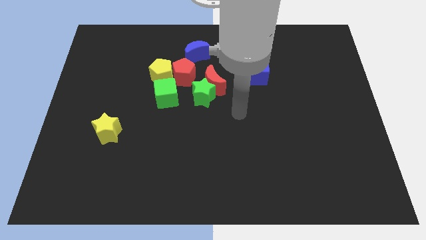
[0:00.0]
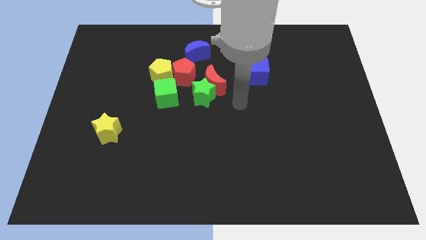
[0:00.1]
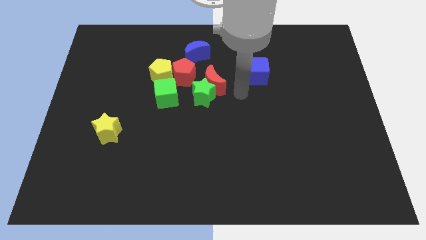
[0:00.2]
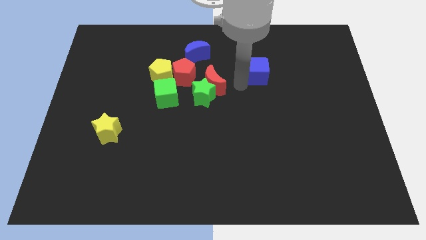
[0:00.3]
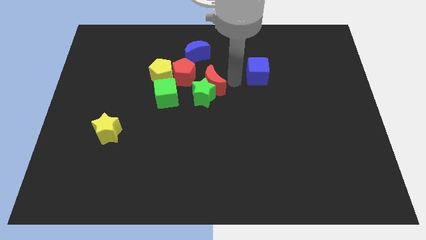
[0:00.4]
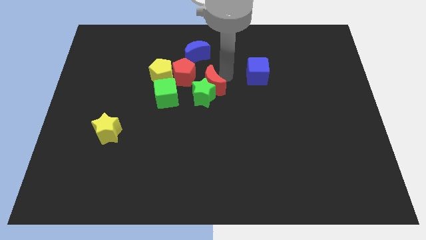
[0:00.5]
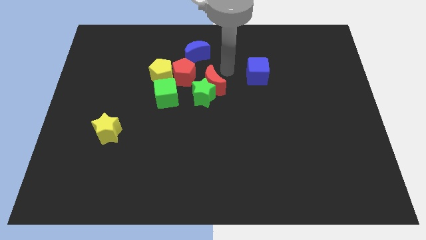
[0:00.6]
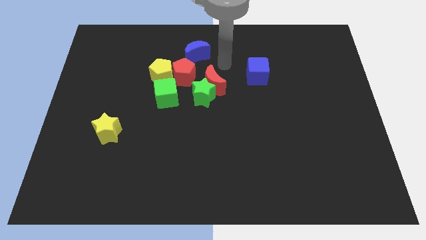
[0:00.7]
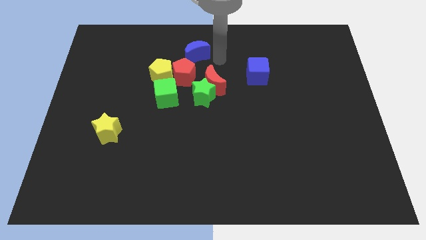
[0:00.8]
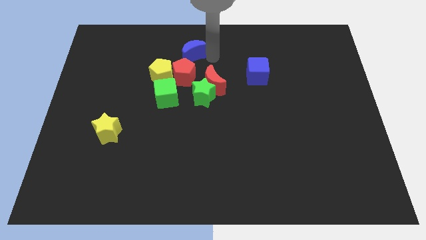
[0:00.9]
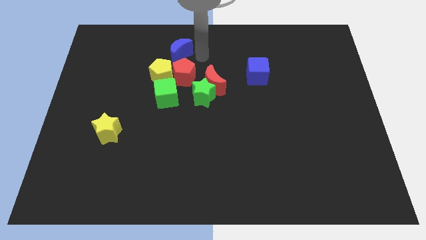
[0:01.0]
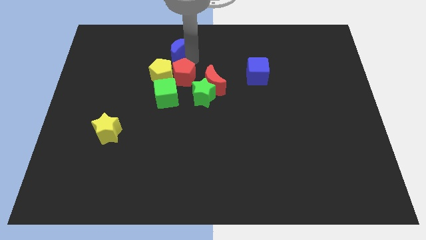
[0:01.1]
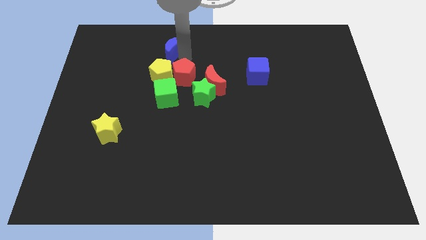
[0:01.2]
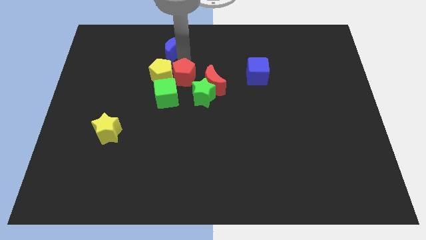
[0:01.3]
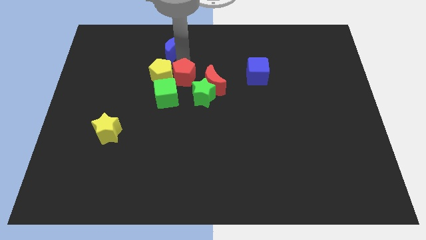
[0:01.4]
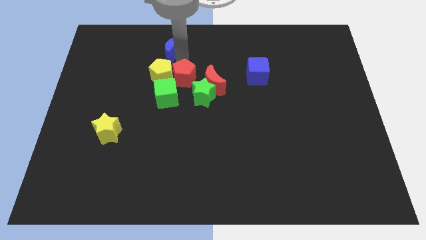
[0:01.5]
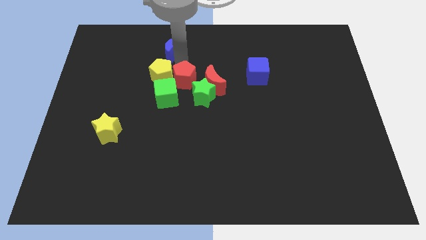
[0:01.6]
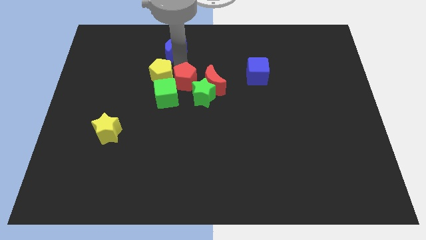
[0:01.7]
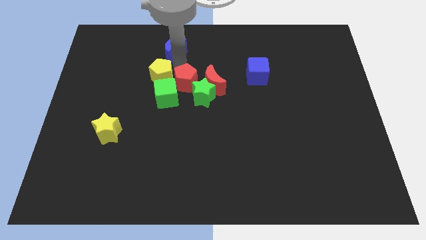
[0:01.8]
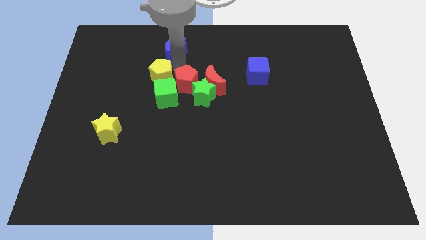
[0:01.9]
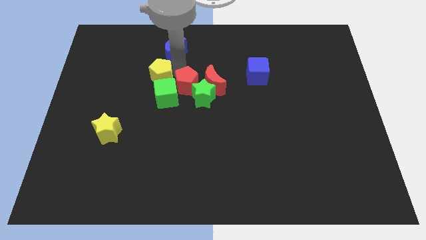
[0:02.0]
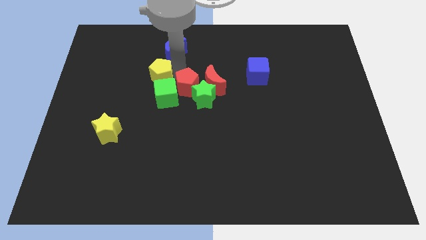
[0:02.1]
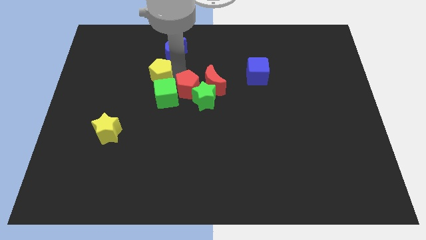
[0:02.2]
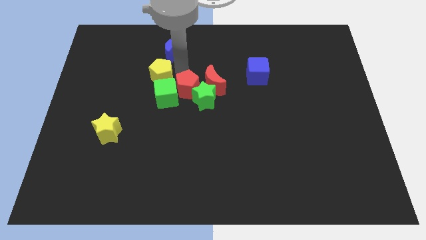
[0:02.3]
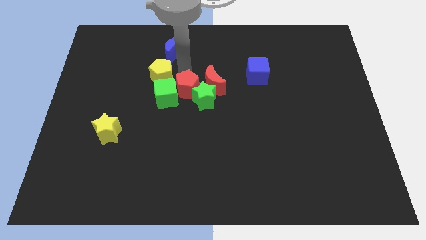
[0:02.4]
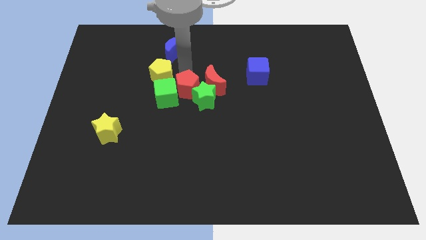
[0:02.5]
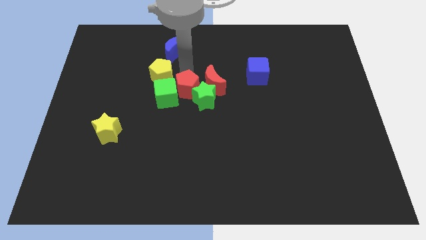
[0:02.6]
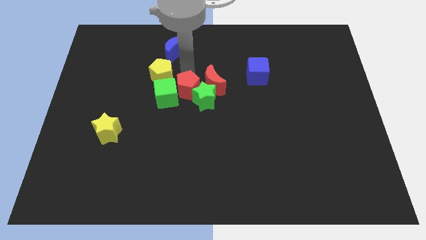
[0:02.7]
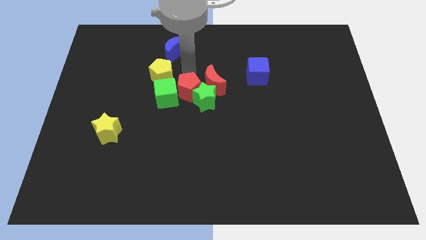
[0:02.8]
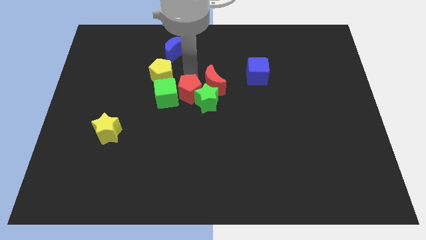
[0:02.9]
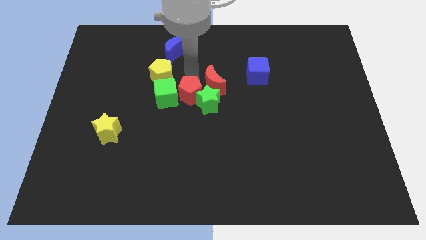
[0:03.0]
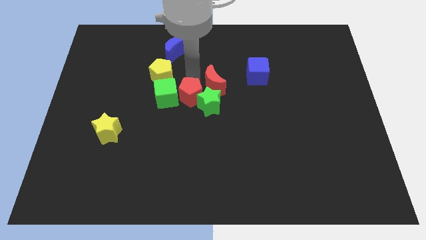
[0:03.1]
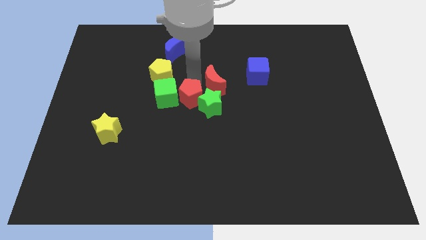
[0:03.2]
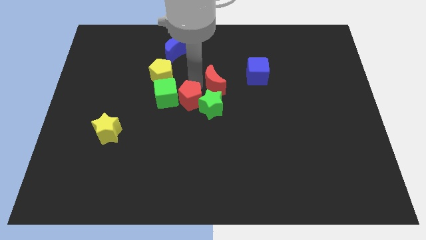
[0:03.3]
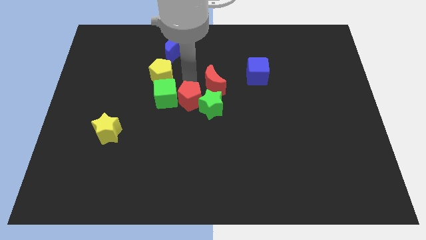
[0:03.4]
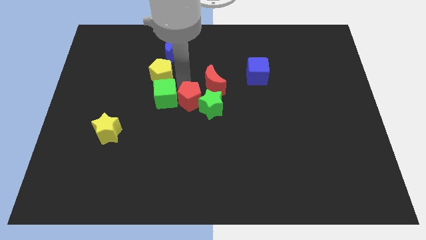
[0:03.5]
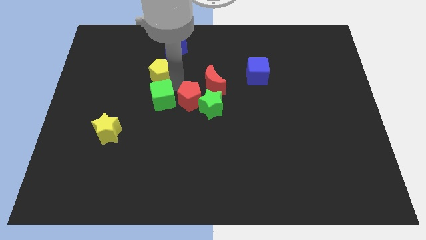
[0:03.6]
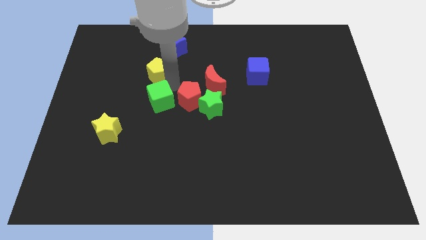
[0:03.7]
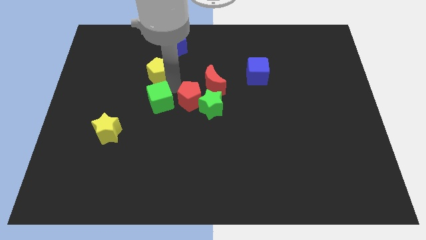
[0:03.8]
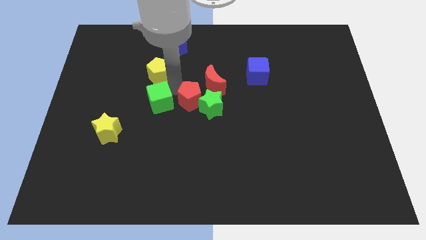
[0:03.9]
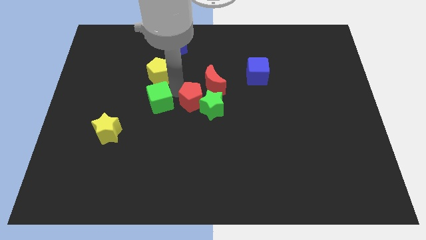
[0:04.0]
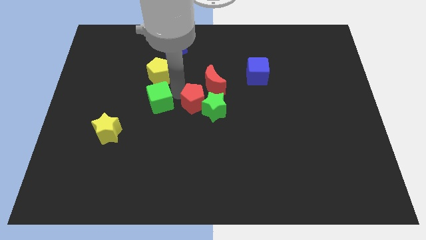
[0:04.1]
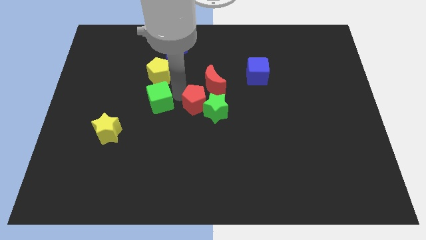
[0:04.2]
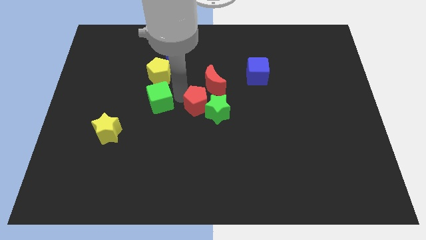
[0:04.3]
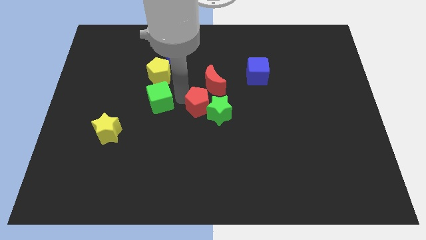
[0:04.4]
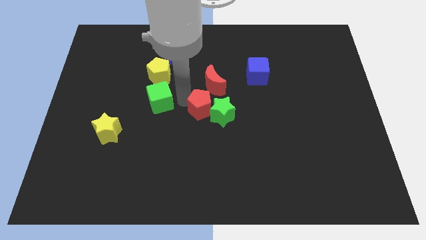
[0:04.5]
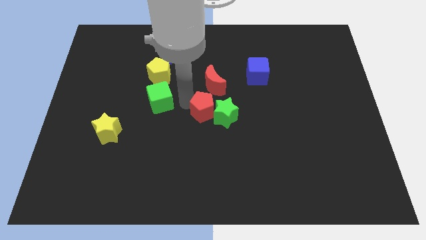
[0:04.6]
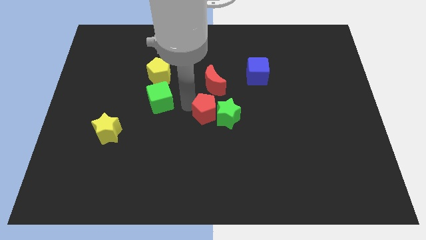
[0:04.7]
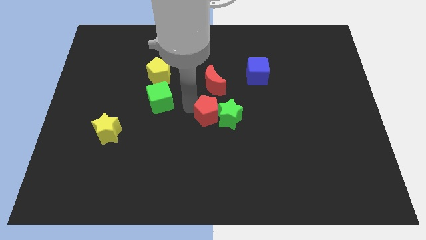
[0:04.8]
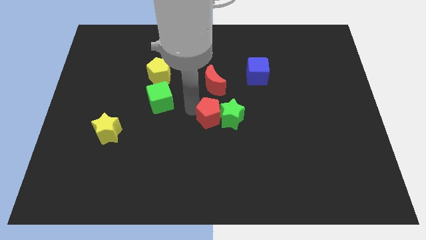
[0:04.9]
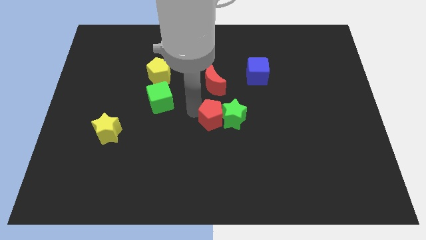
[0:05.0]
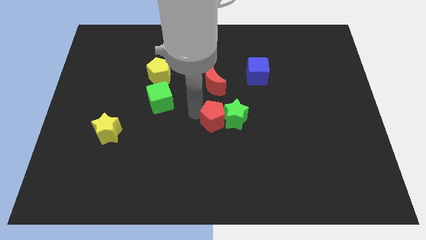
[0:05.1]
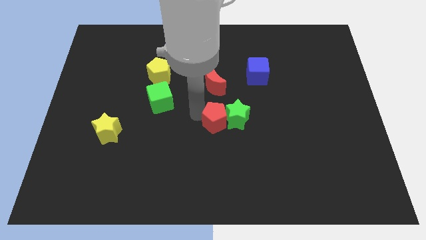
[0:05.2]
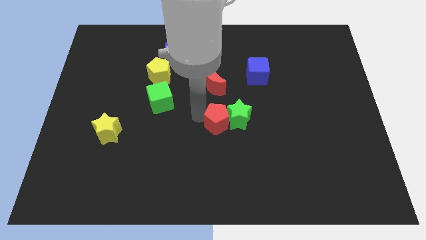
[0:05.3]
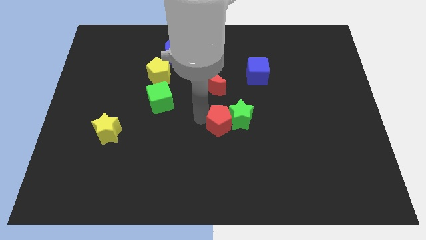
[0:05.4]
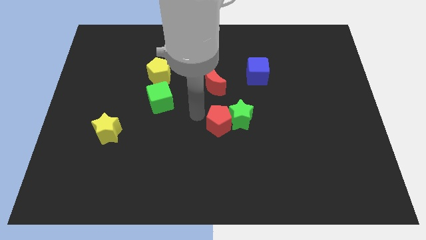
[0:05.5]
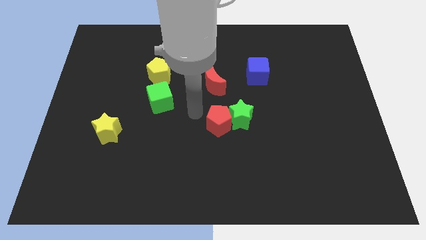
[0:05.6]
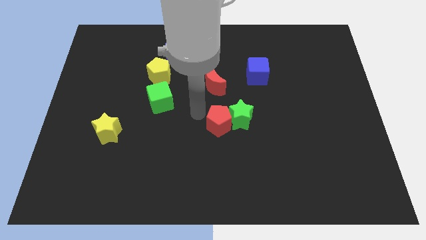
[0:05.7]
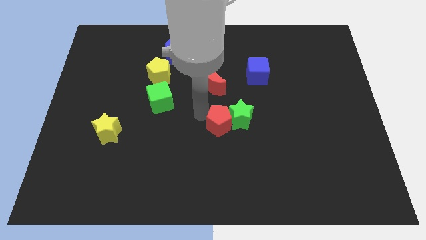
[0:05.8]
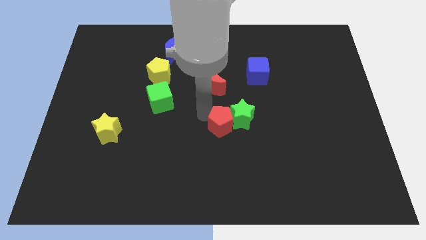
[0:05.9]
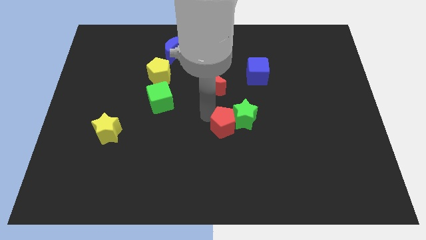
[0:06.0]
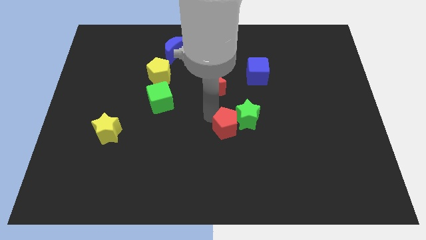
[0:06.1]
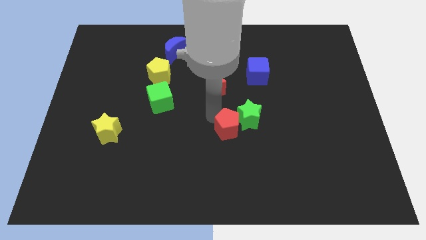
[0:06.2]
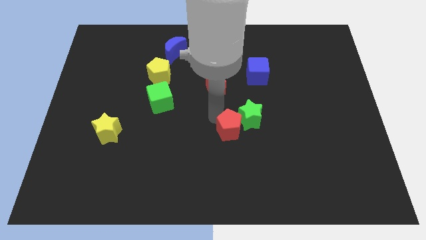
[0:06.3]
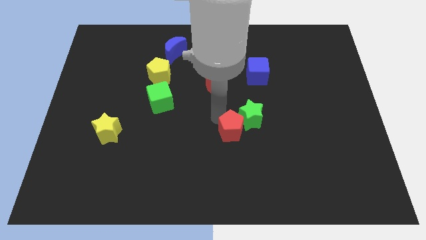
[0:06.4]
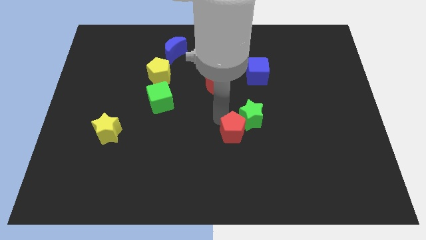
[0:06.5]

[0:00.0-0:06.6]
slide the red pentagon down and to the right

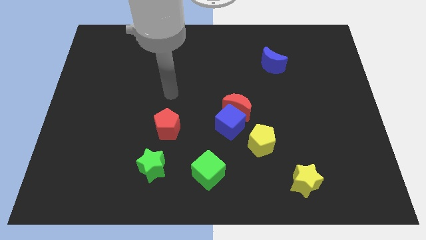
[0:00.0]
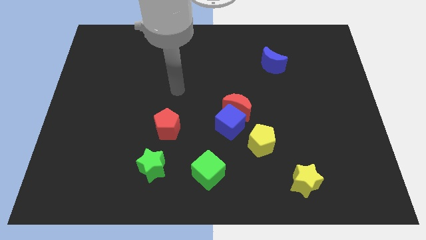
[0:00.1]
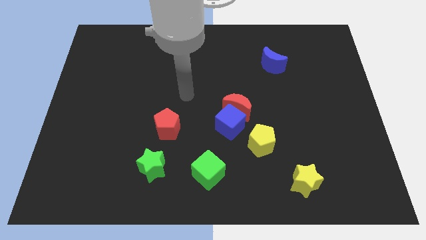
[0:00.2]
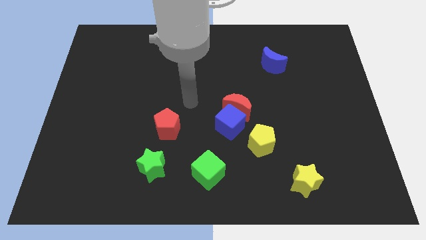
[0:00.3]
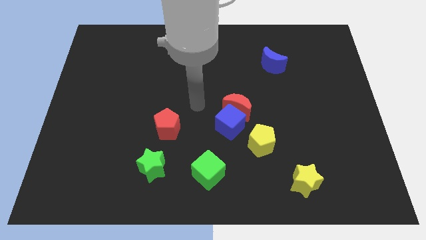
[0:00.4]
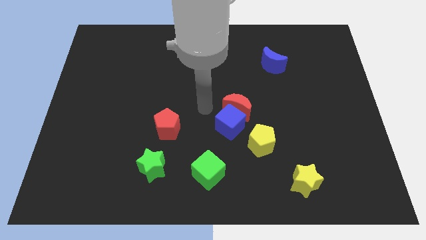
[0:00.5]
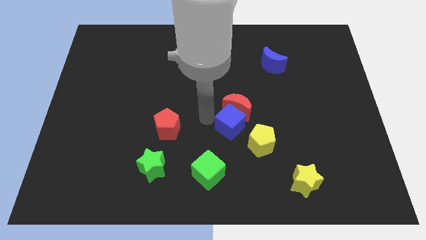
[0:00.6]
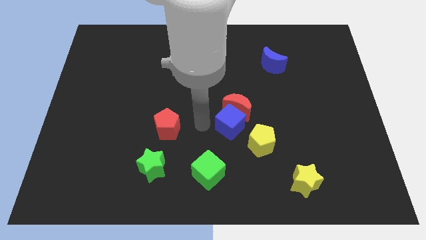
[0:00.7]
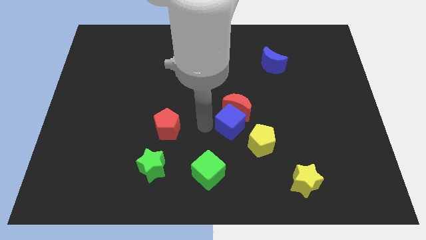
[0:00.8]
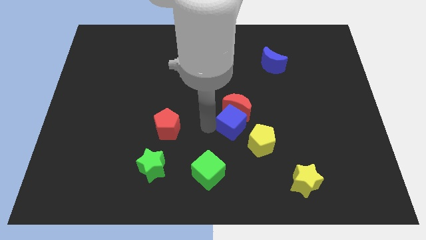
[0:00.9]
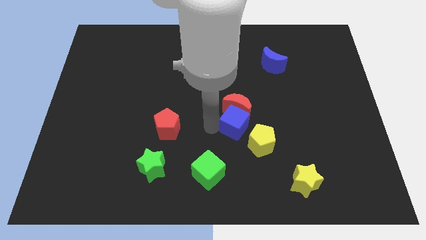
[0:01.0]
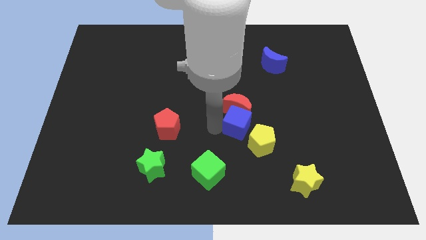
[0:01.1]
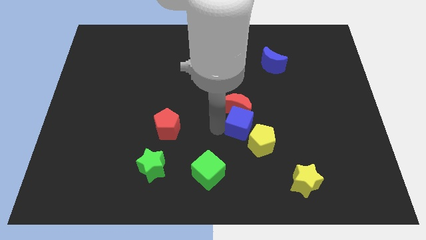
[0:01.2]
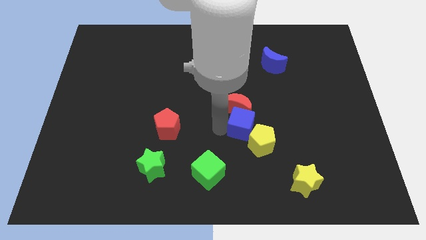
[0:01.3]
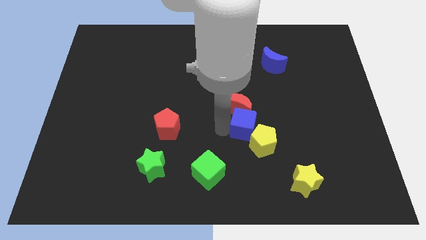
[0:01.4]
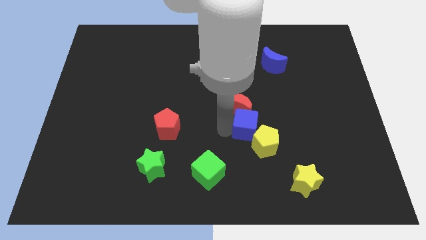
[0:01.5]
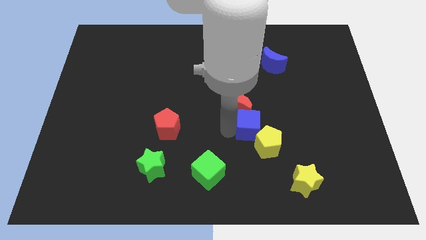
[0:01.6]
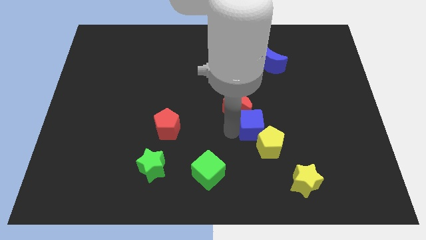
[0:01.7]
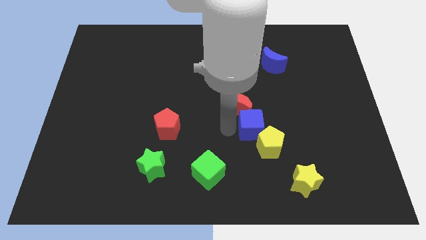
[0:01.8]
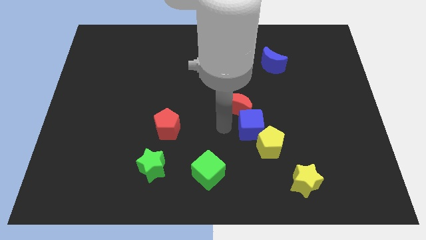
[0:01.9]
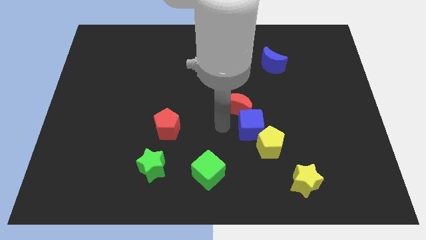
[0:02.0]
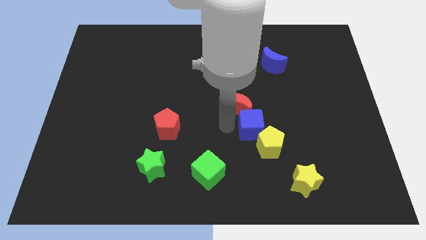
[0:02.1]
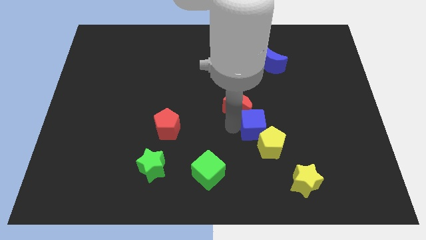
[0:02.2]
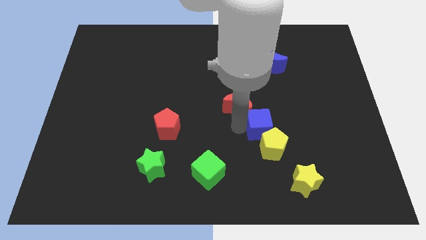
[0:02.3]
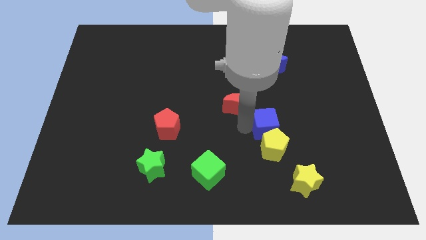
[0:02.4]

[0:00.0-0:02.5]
push the blue cube a little bit right
